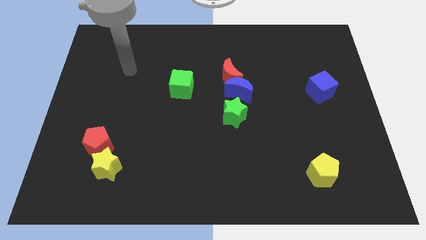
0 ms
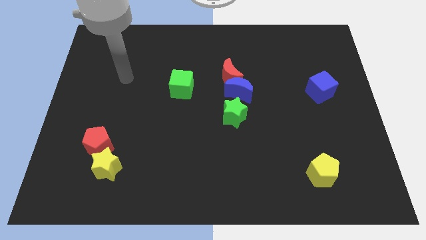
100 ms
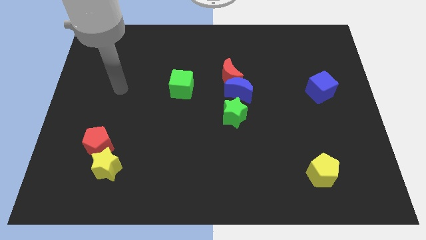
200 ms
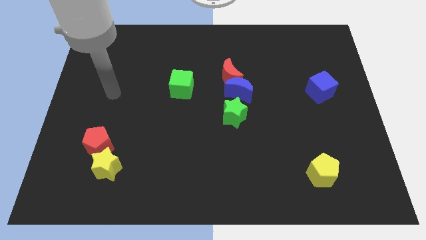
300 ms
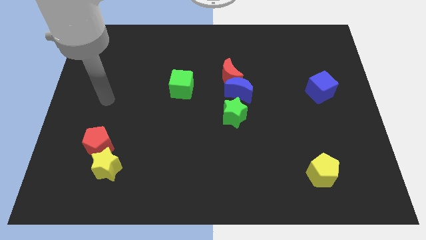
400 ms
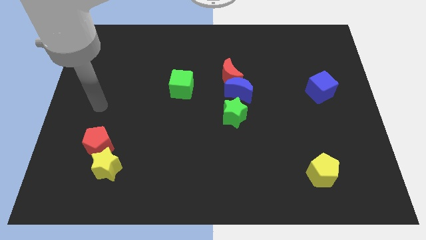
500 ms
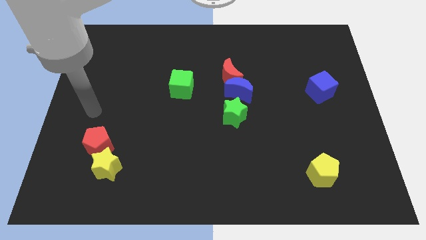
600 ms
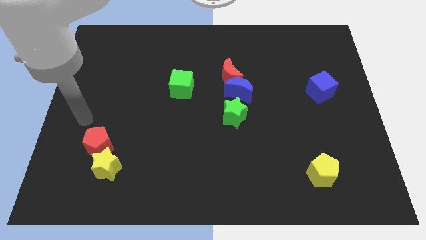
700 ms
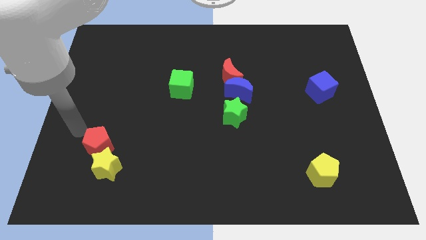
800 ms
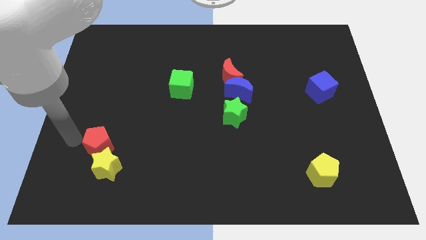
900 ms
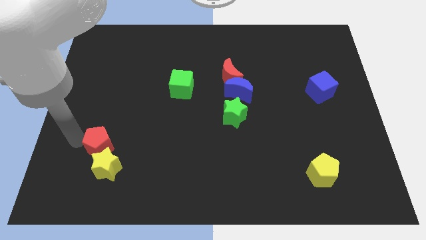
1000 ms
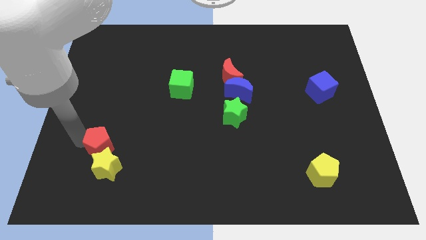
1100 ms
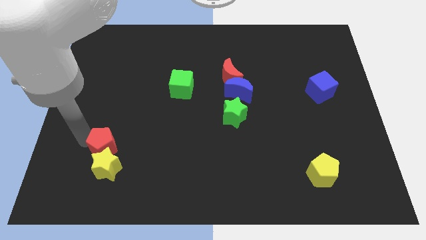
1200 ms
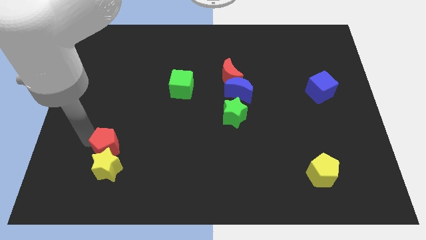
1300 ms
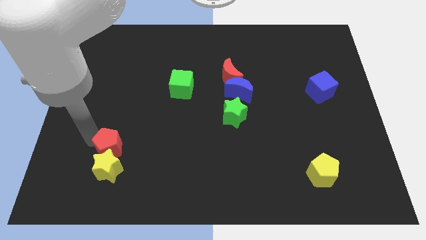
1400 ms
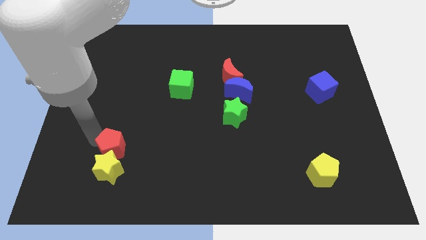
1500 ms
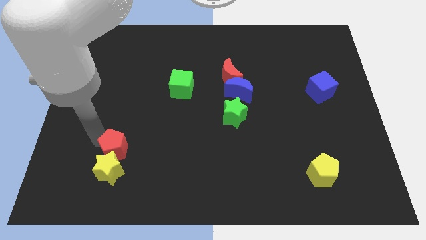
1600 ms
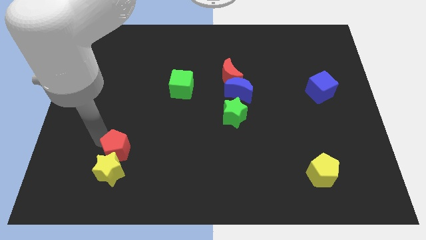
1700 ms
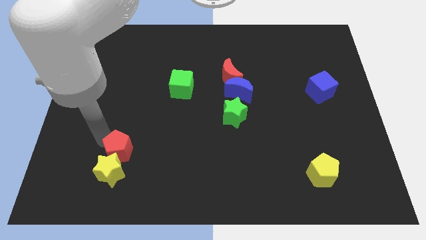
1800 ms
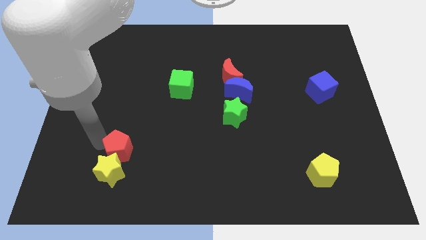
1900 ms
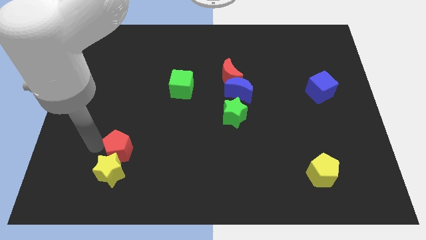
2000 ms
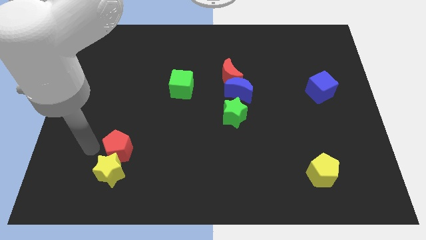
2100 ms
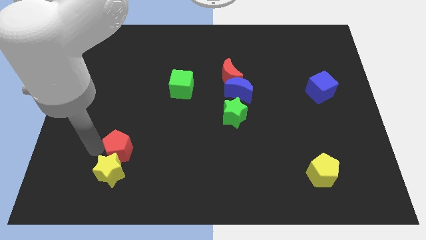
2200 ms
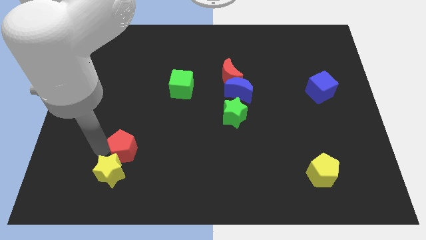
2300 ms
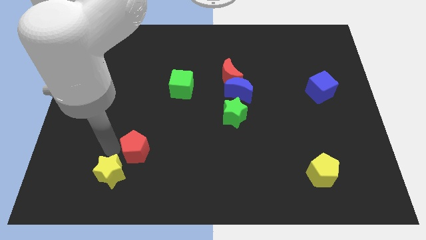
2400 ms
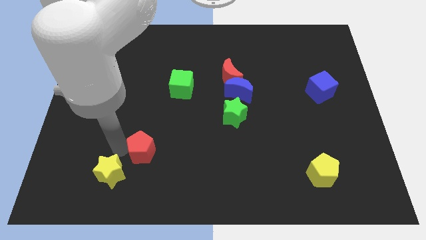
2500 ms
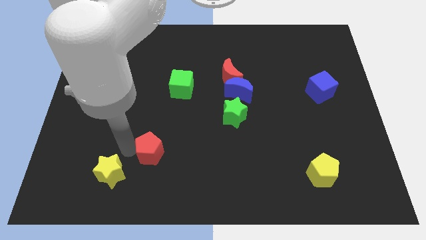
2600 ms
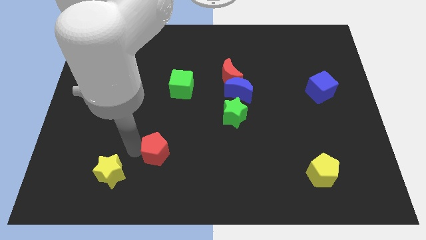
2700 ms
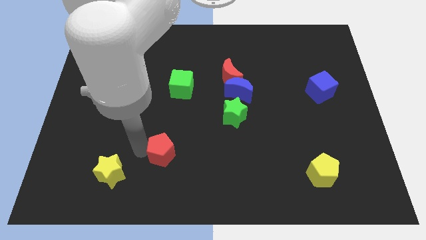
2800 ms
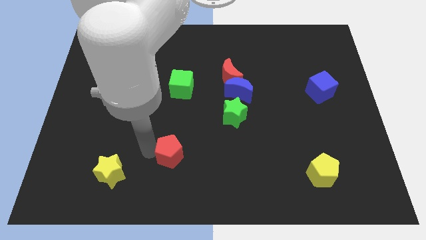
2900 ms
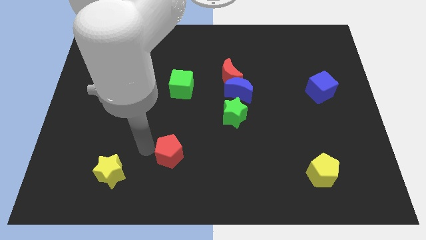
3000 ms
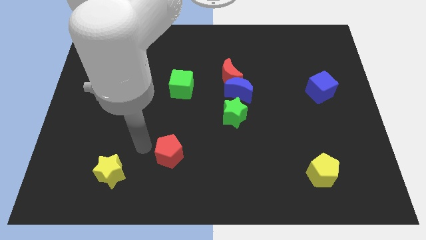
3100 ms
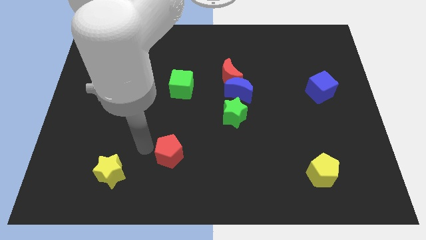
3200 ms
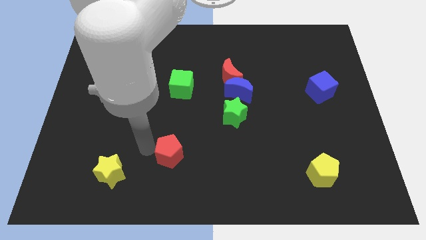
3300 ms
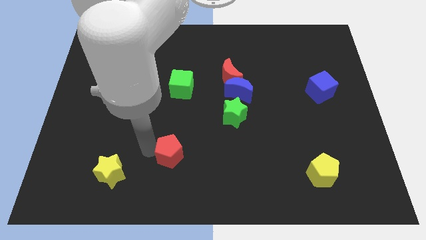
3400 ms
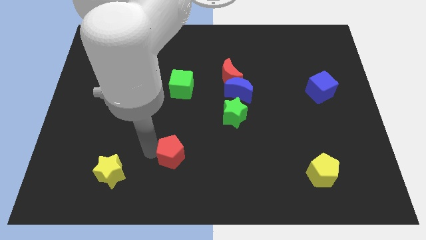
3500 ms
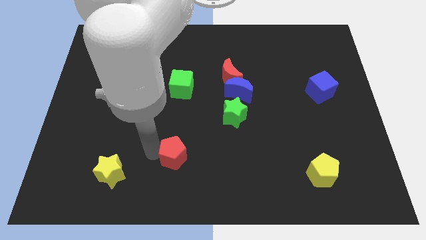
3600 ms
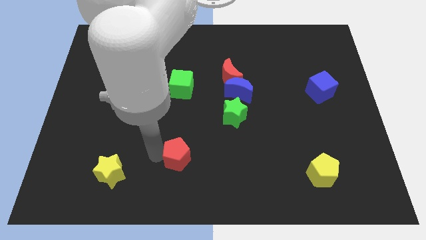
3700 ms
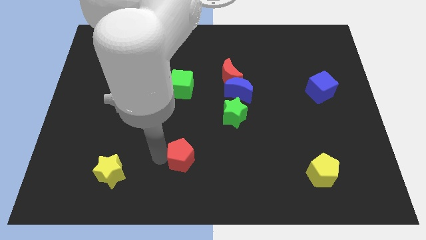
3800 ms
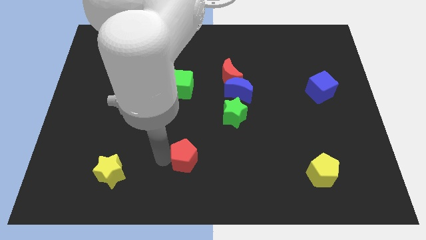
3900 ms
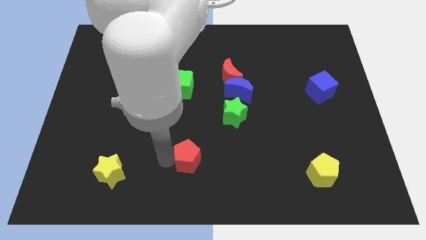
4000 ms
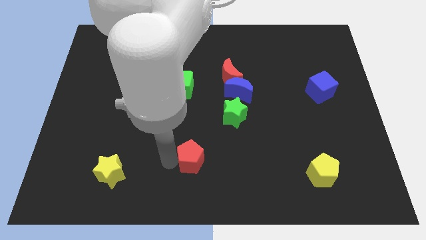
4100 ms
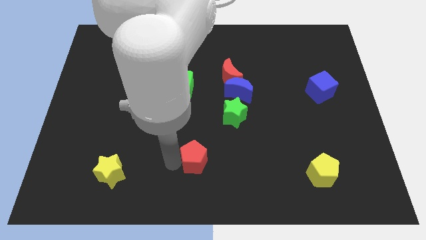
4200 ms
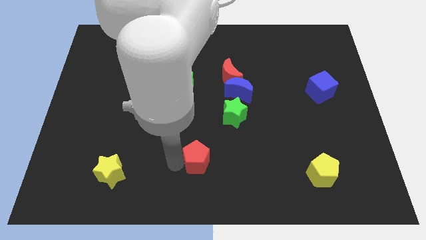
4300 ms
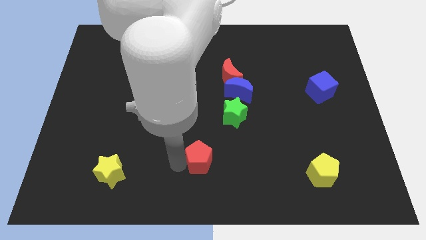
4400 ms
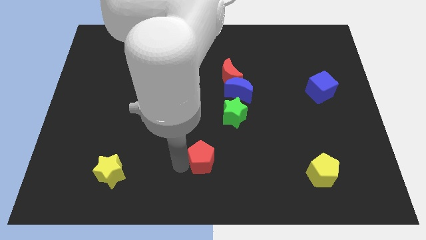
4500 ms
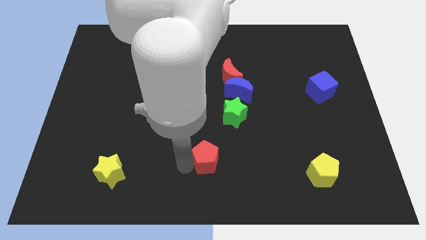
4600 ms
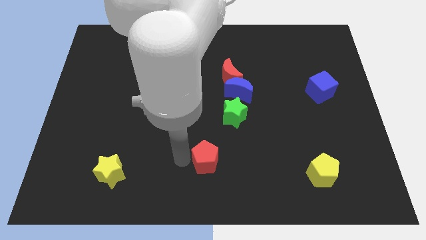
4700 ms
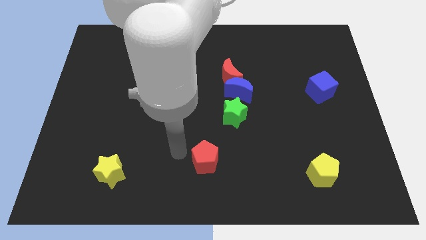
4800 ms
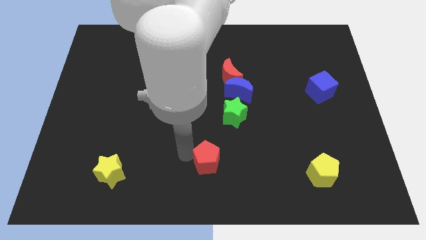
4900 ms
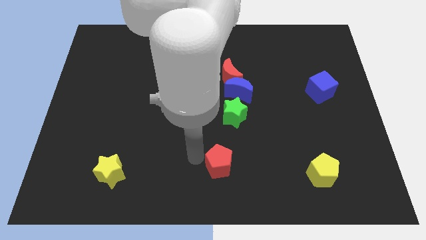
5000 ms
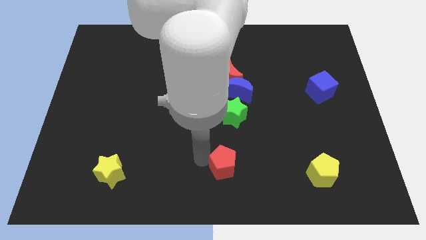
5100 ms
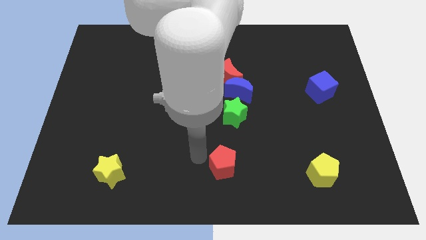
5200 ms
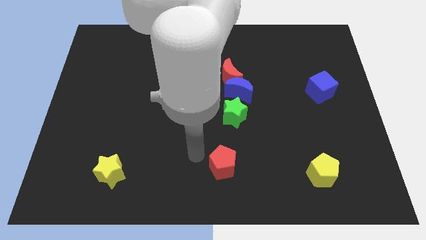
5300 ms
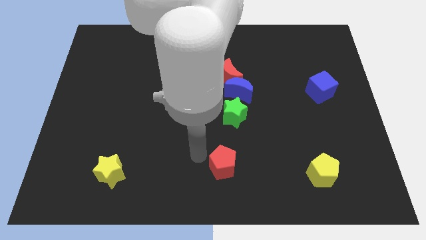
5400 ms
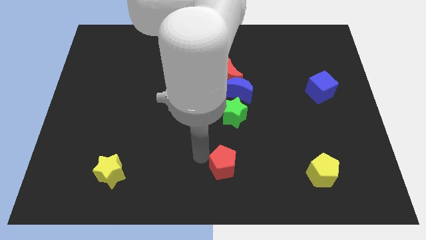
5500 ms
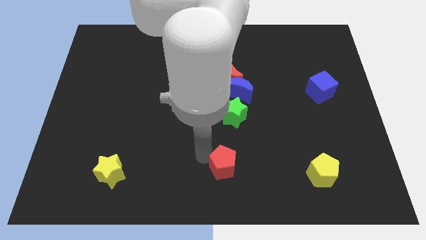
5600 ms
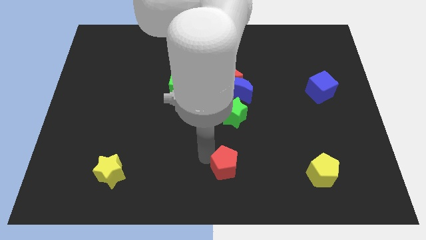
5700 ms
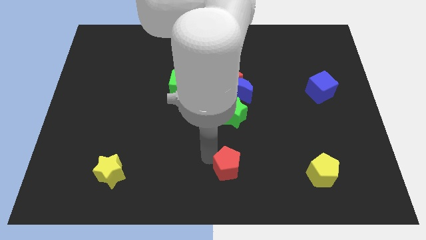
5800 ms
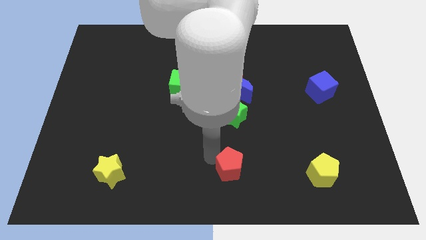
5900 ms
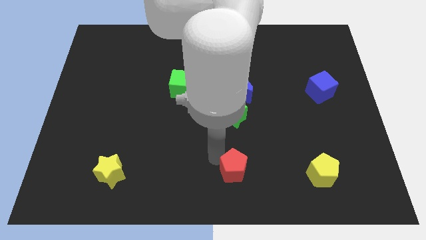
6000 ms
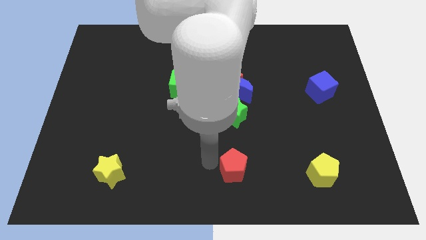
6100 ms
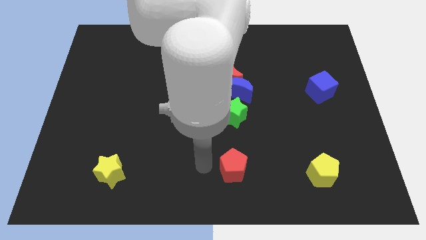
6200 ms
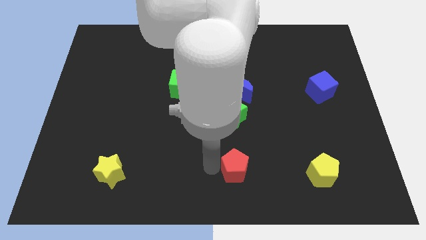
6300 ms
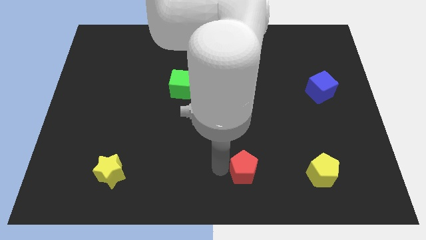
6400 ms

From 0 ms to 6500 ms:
move the red pentagon to the left side of the yellow pentagon

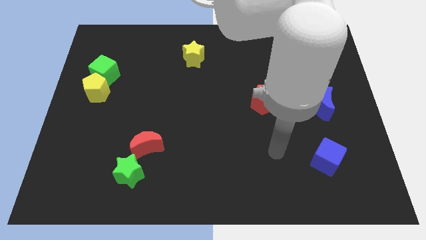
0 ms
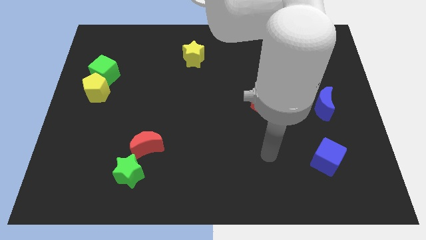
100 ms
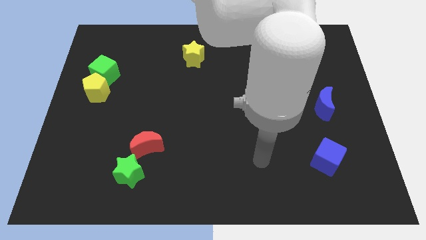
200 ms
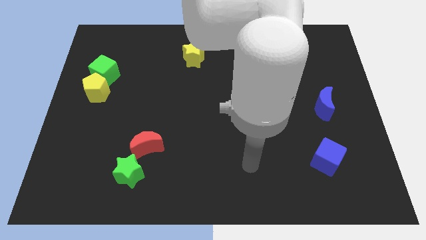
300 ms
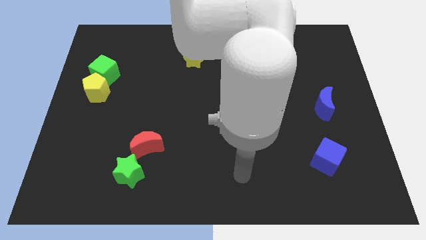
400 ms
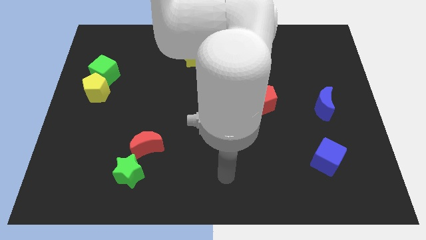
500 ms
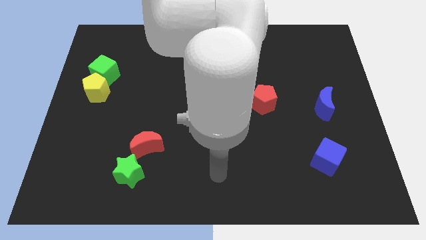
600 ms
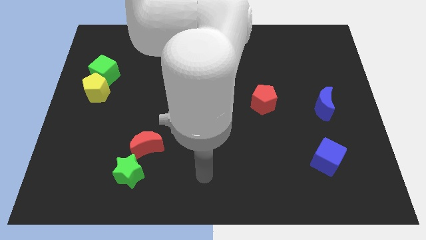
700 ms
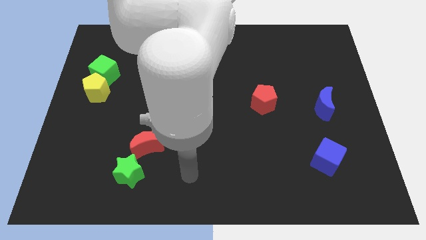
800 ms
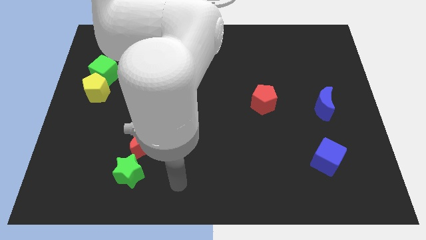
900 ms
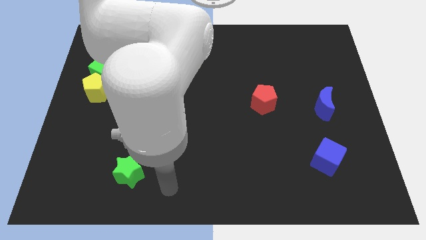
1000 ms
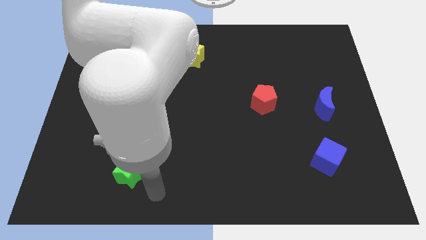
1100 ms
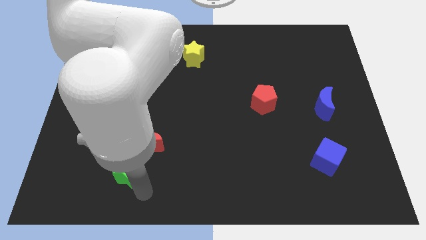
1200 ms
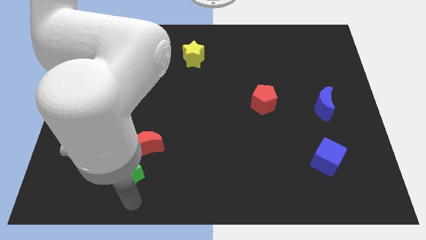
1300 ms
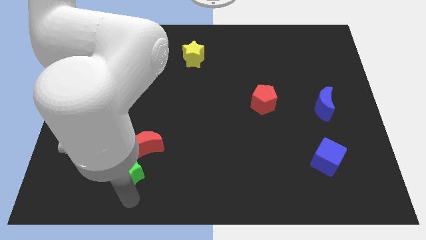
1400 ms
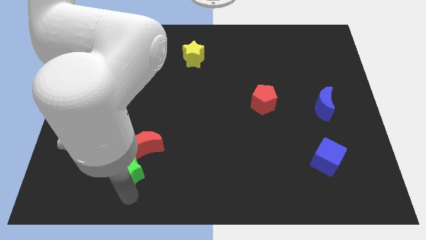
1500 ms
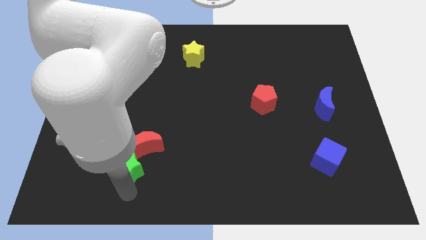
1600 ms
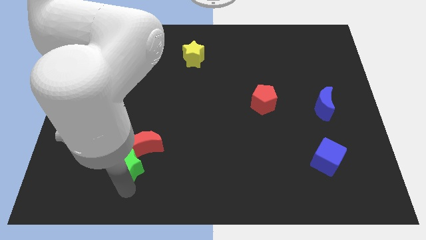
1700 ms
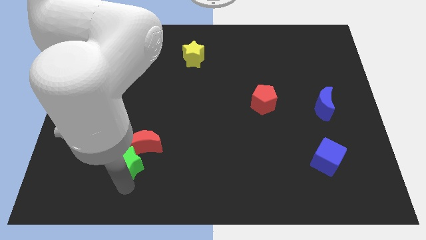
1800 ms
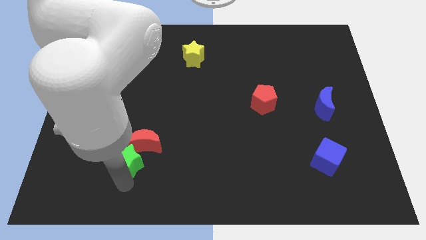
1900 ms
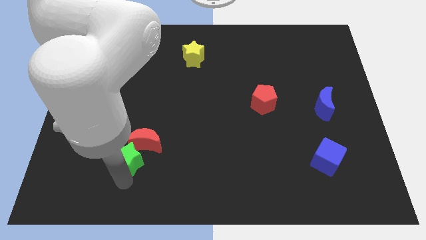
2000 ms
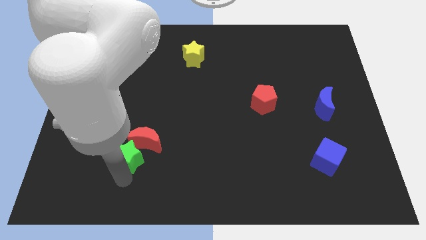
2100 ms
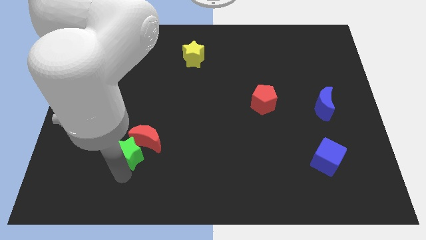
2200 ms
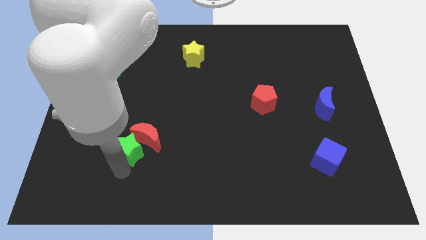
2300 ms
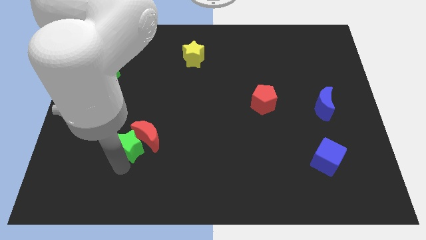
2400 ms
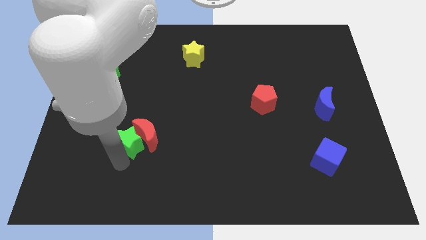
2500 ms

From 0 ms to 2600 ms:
move the green star to the top left of the red moon
